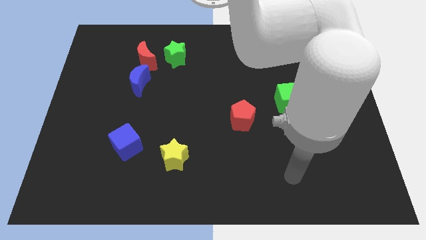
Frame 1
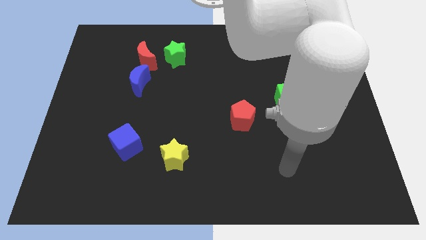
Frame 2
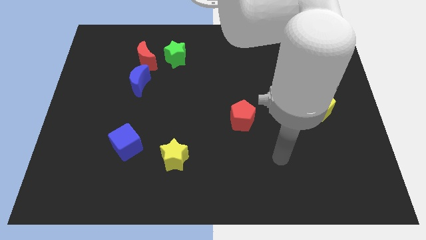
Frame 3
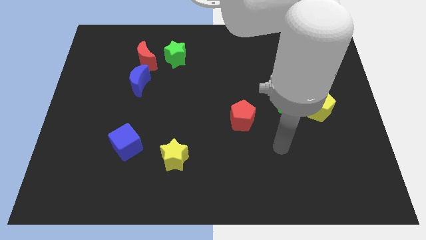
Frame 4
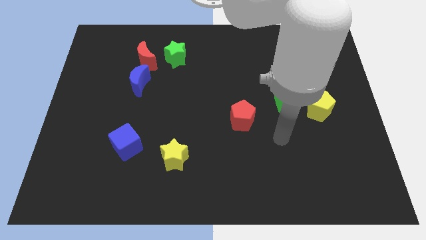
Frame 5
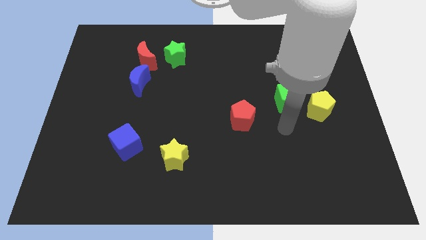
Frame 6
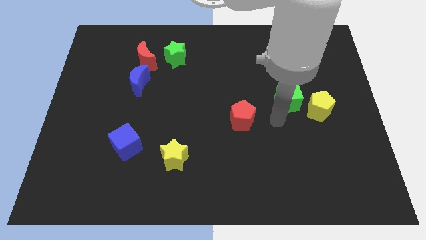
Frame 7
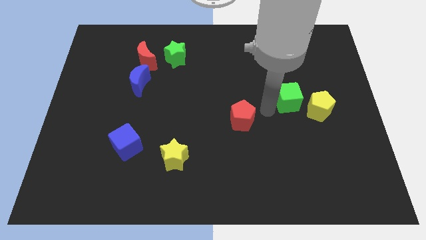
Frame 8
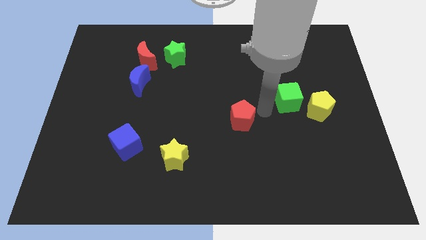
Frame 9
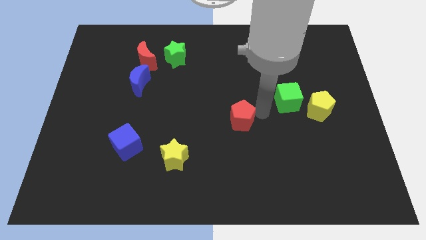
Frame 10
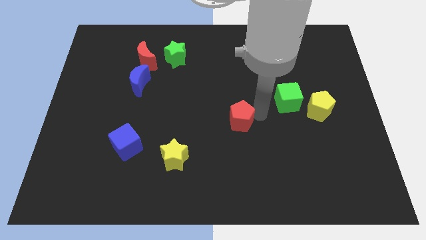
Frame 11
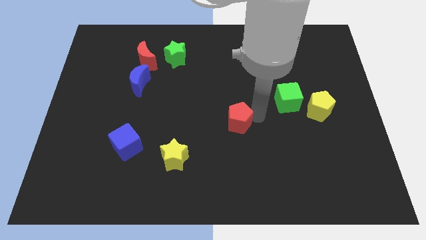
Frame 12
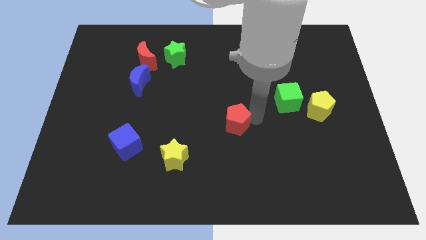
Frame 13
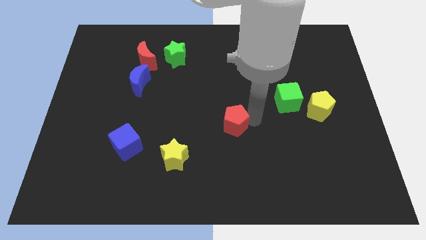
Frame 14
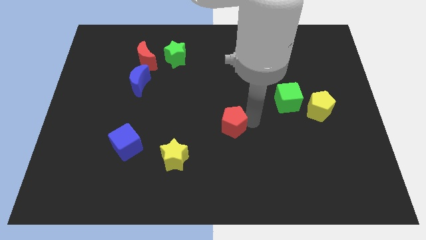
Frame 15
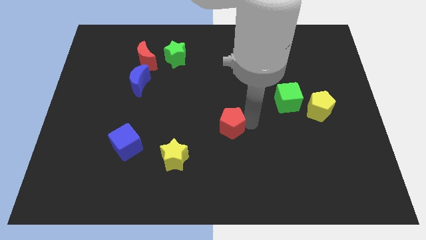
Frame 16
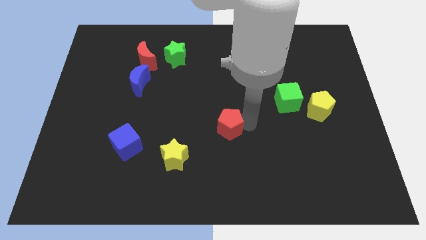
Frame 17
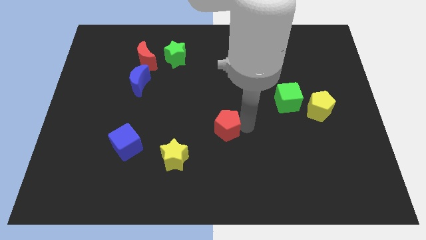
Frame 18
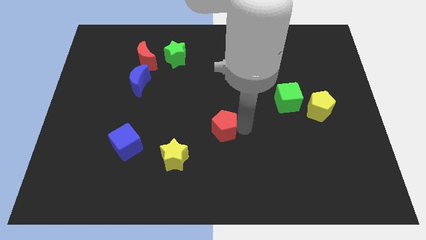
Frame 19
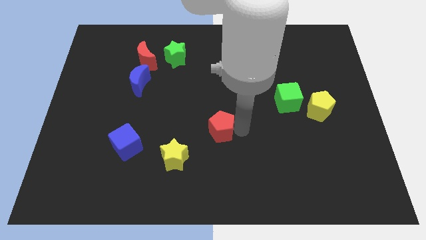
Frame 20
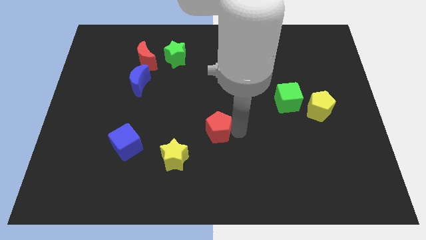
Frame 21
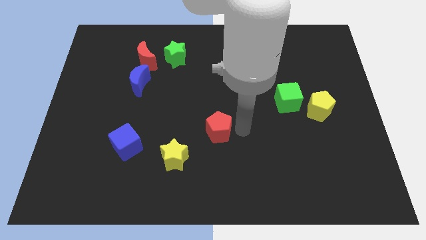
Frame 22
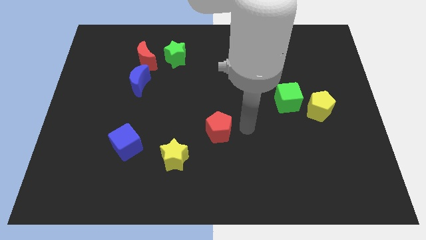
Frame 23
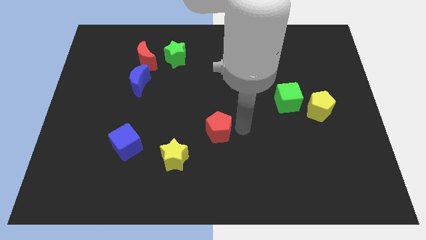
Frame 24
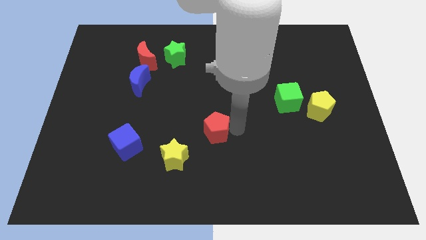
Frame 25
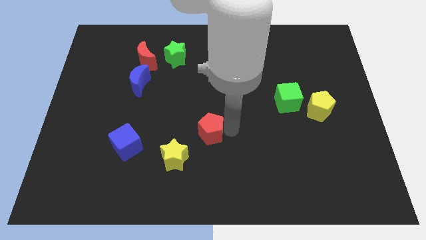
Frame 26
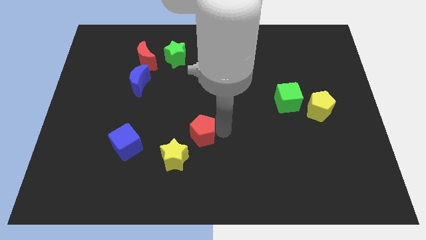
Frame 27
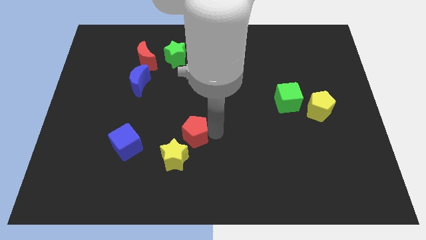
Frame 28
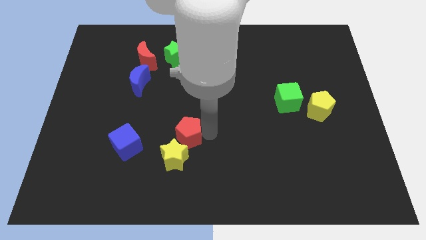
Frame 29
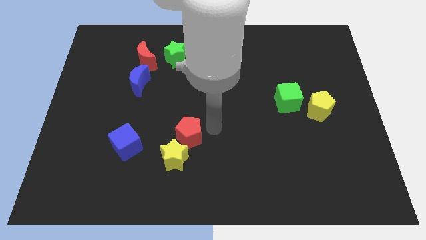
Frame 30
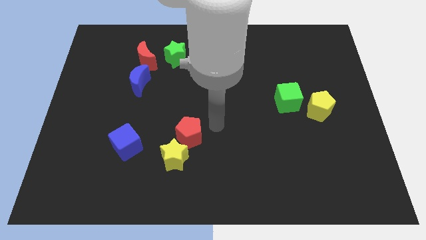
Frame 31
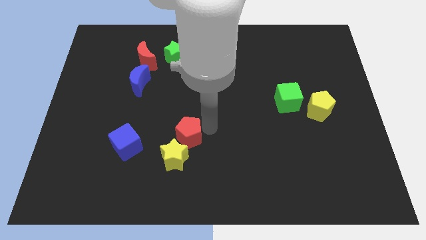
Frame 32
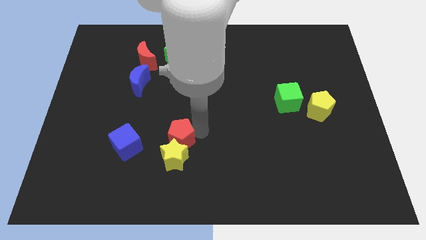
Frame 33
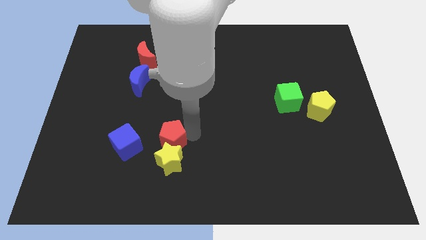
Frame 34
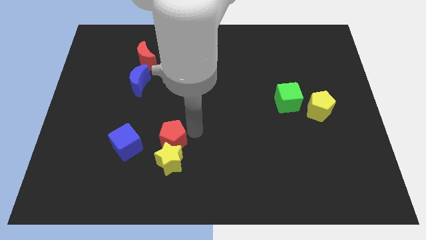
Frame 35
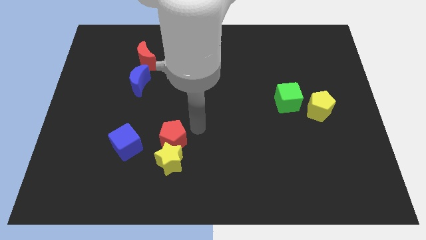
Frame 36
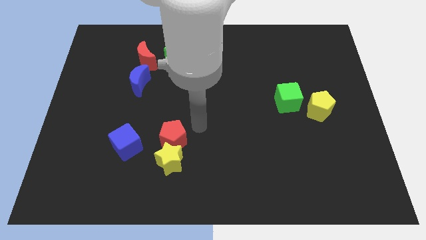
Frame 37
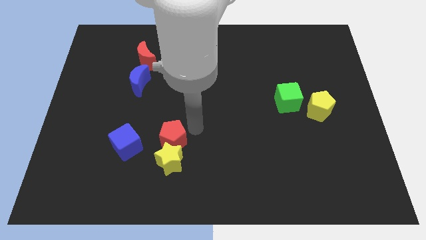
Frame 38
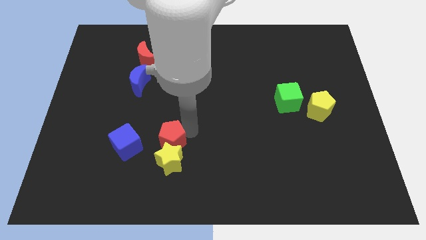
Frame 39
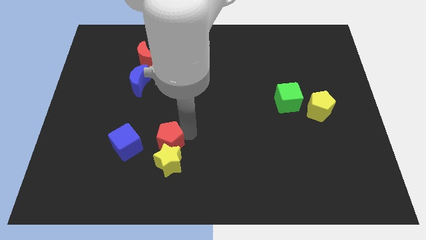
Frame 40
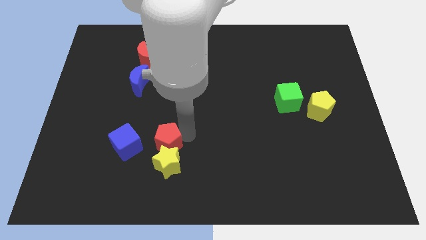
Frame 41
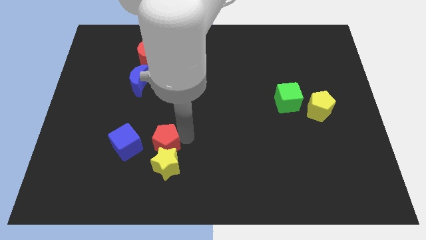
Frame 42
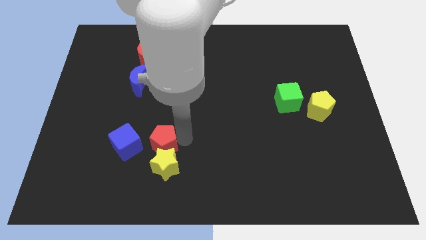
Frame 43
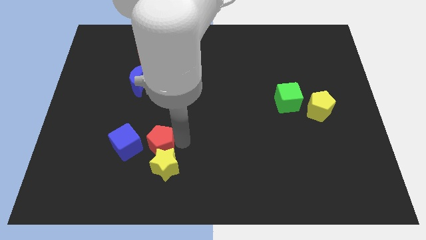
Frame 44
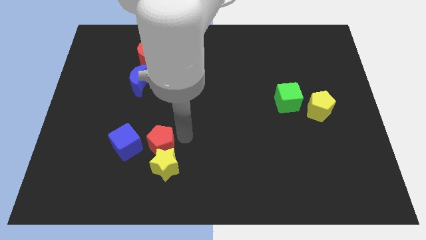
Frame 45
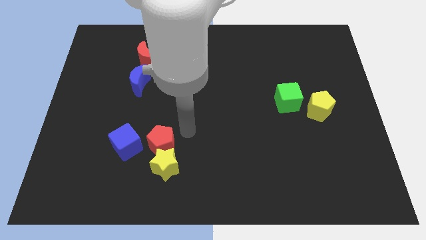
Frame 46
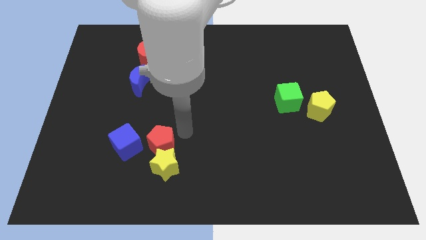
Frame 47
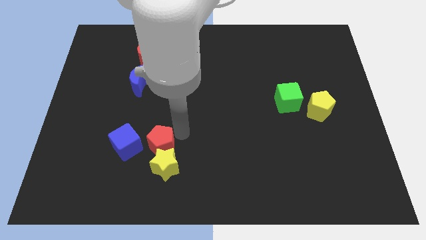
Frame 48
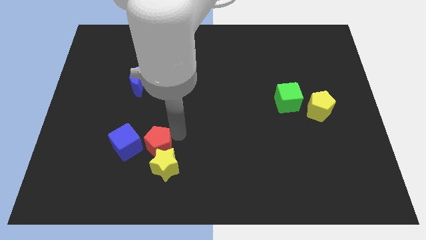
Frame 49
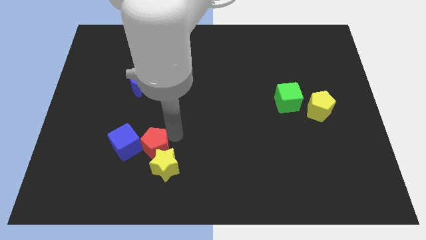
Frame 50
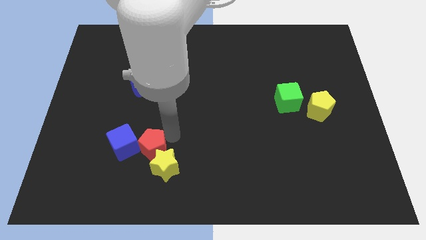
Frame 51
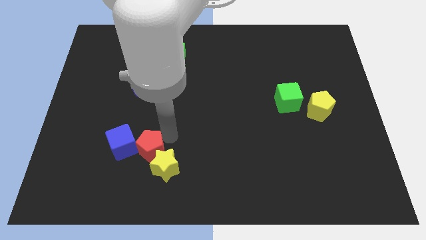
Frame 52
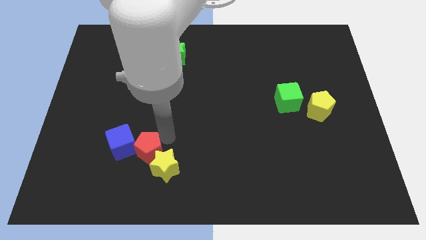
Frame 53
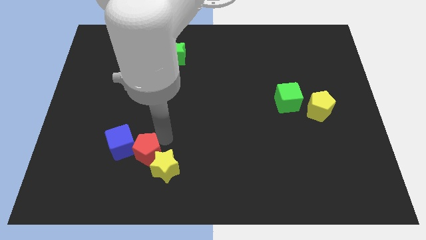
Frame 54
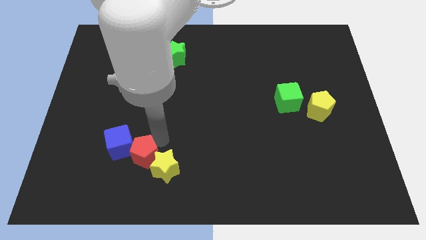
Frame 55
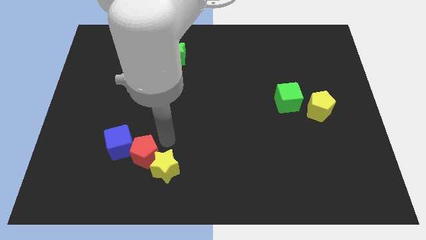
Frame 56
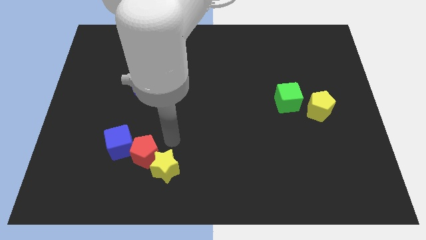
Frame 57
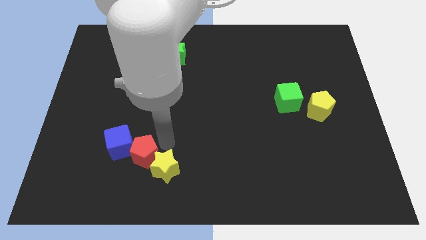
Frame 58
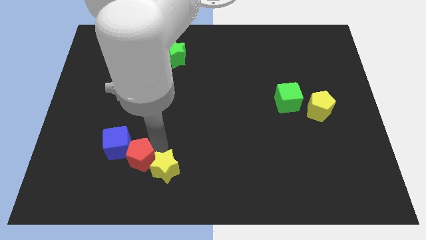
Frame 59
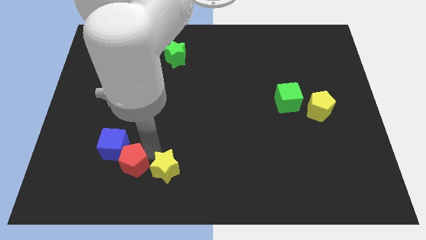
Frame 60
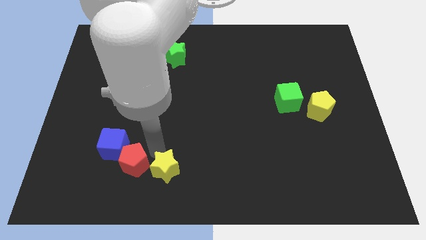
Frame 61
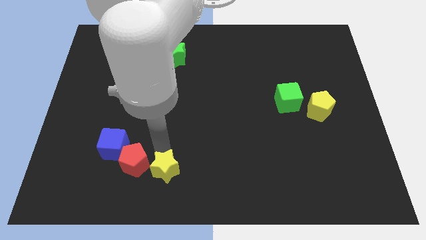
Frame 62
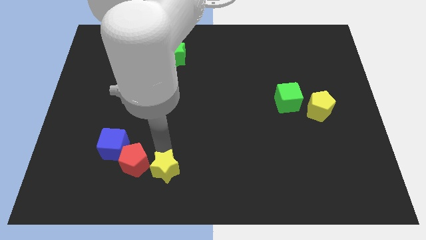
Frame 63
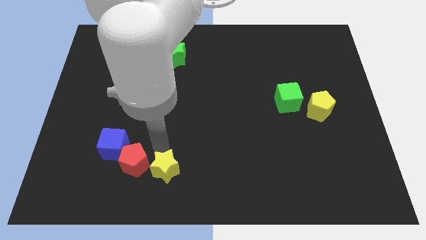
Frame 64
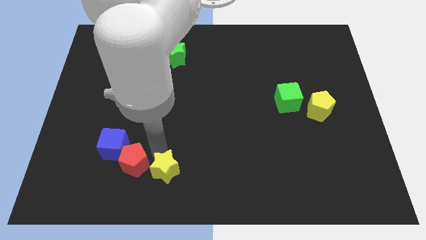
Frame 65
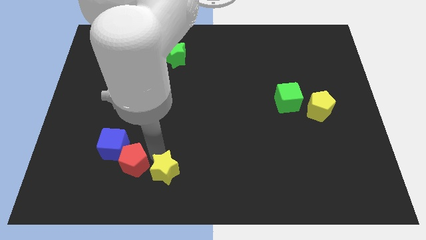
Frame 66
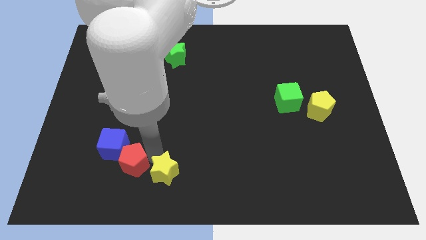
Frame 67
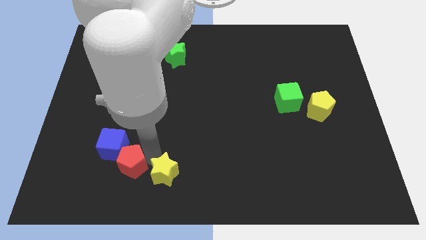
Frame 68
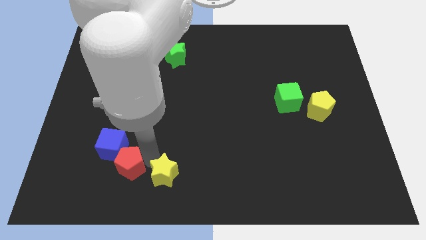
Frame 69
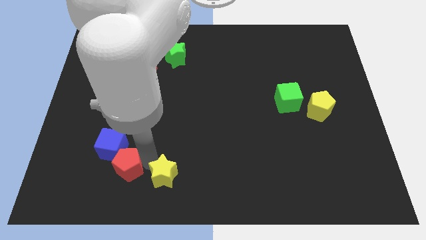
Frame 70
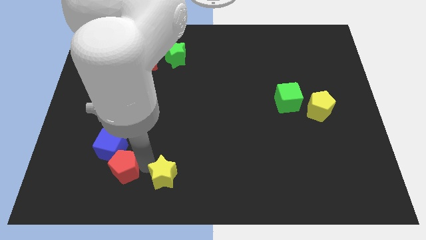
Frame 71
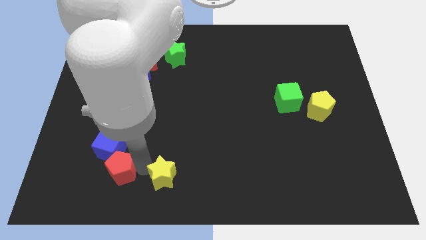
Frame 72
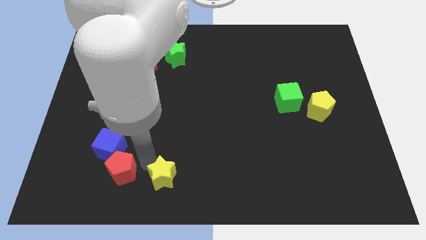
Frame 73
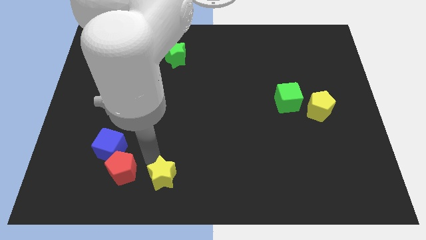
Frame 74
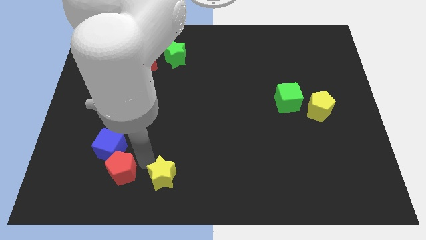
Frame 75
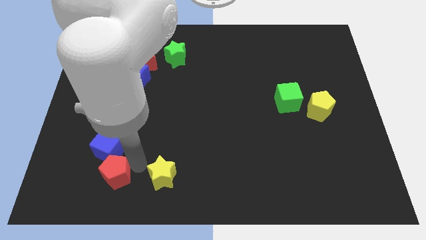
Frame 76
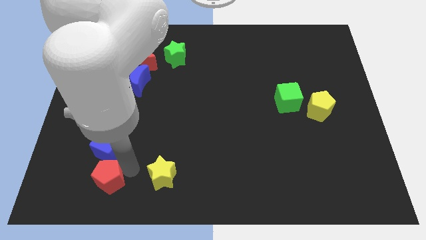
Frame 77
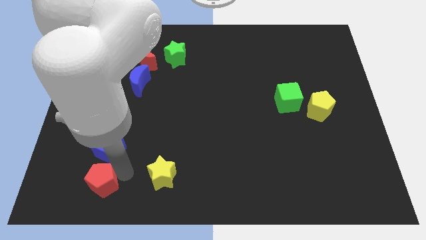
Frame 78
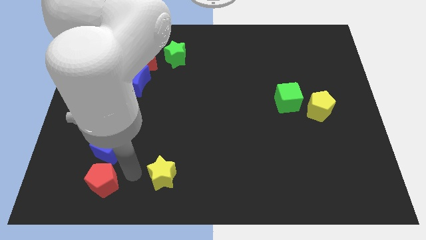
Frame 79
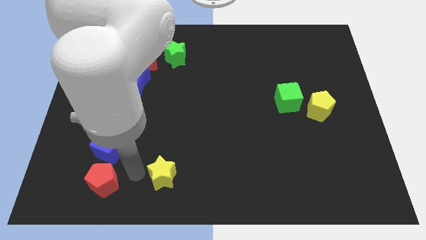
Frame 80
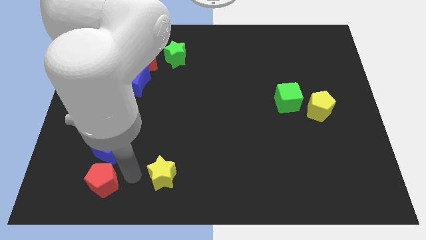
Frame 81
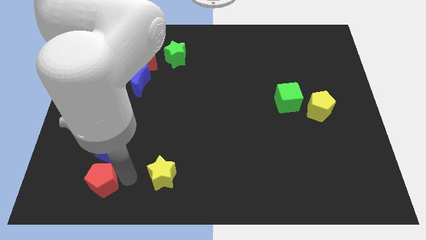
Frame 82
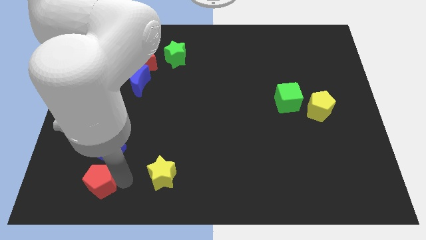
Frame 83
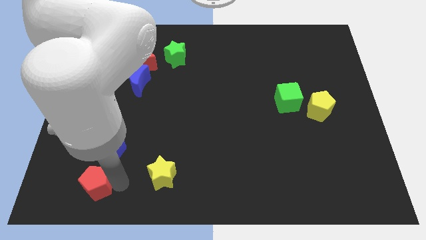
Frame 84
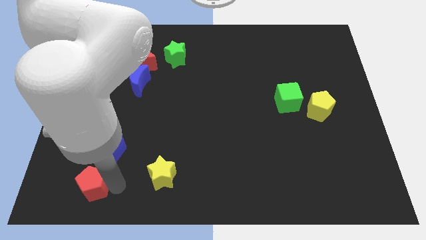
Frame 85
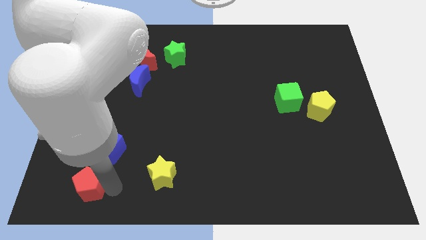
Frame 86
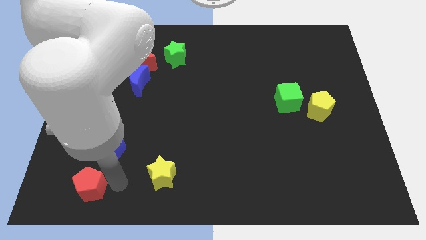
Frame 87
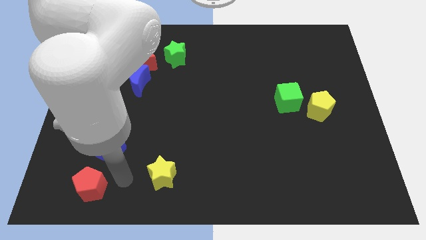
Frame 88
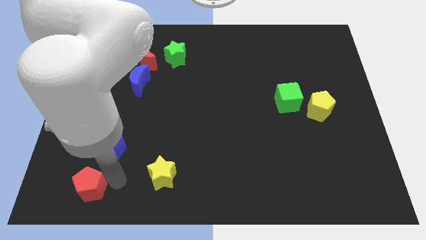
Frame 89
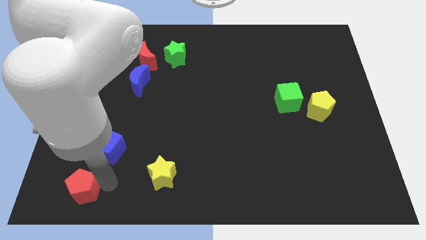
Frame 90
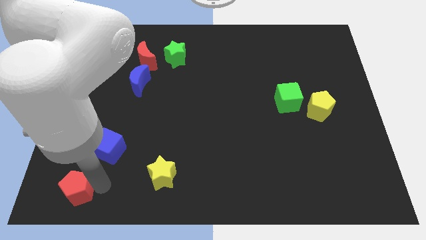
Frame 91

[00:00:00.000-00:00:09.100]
push the red pentagon to the bottom left corner
